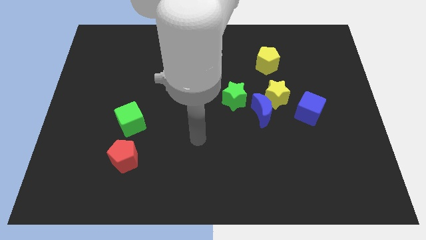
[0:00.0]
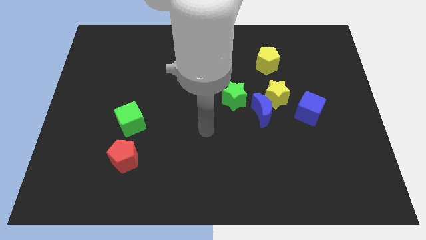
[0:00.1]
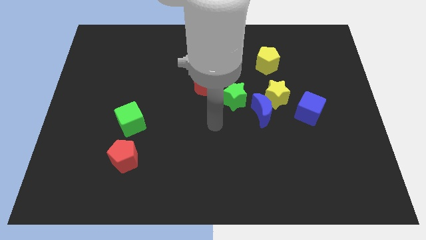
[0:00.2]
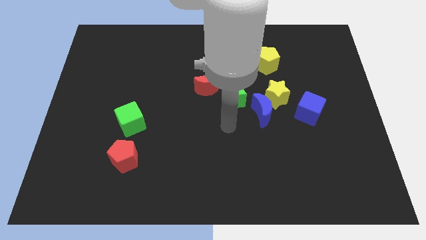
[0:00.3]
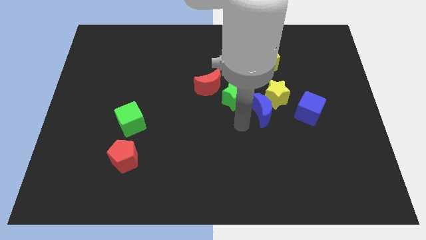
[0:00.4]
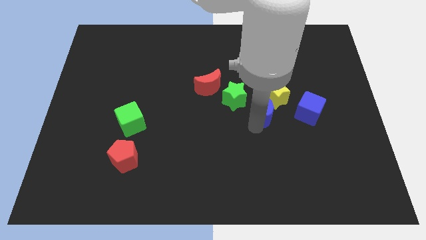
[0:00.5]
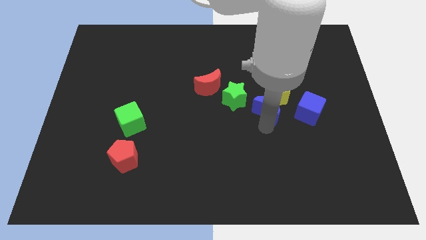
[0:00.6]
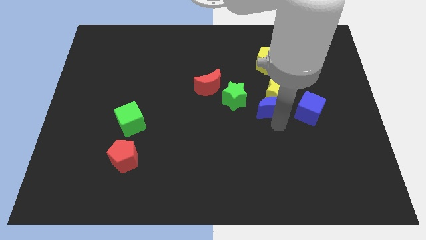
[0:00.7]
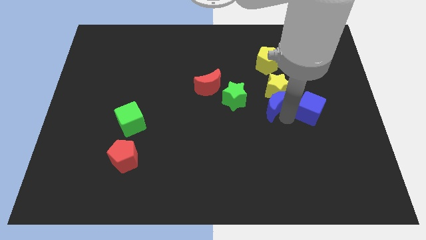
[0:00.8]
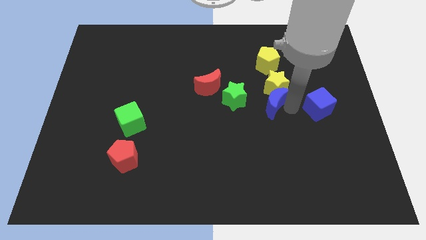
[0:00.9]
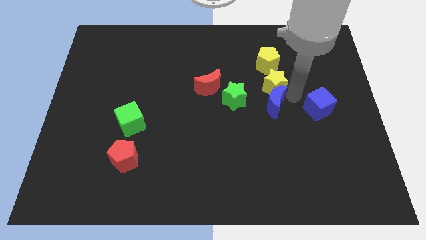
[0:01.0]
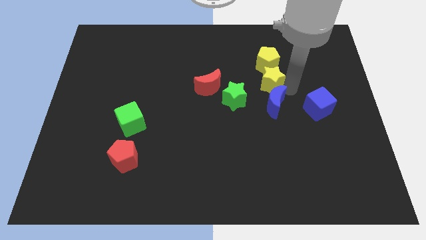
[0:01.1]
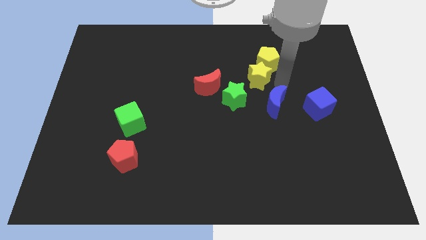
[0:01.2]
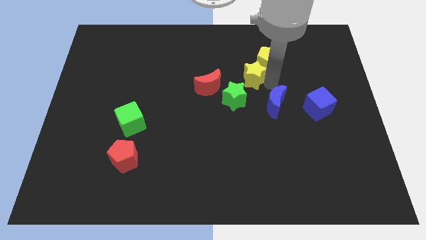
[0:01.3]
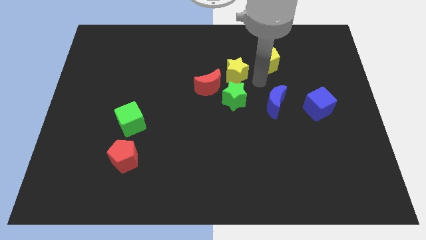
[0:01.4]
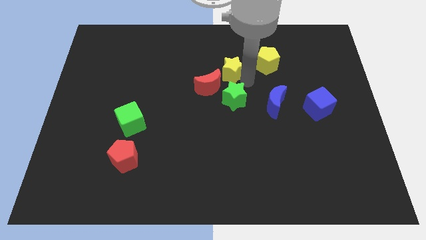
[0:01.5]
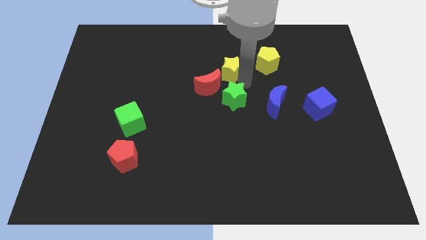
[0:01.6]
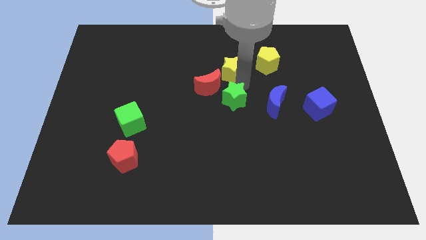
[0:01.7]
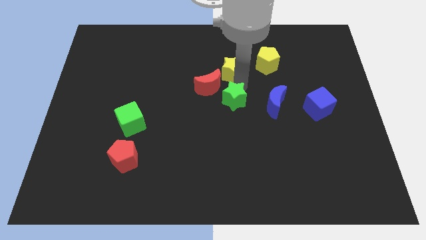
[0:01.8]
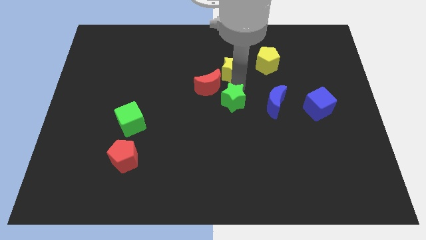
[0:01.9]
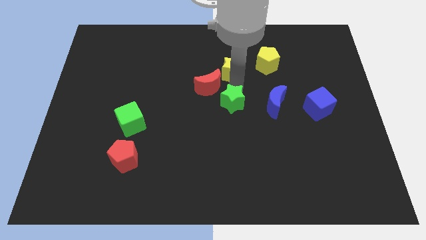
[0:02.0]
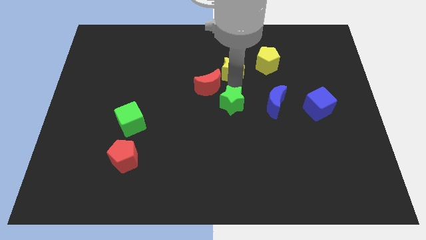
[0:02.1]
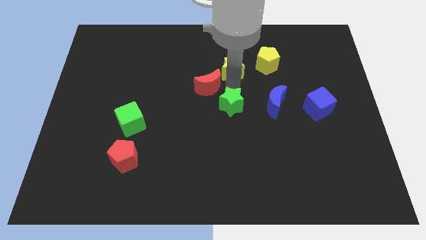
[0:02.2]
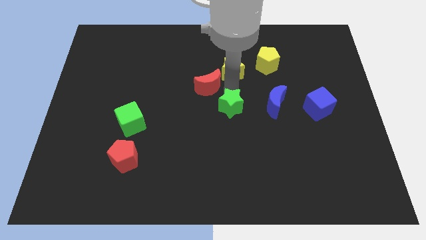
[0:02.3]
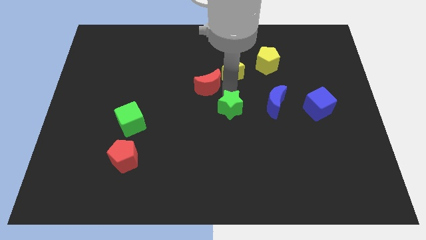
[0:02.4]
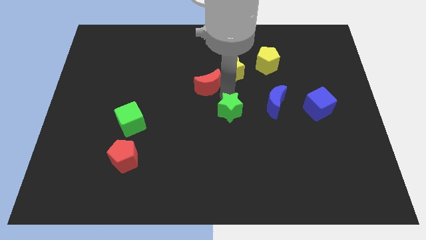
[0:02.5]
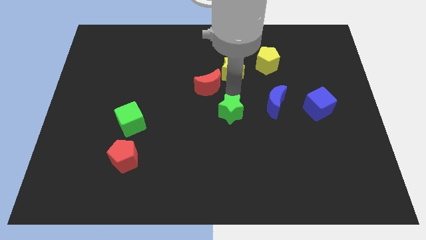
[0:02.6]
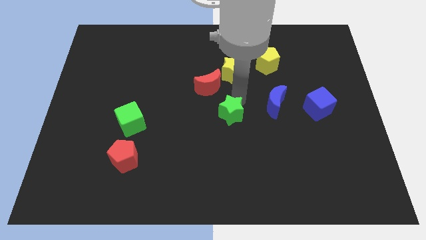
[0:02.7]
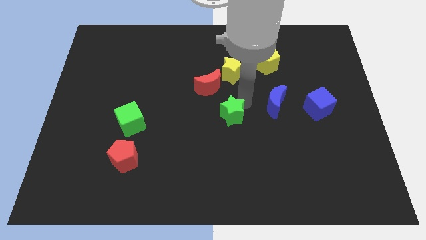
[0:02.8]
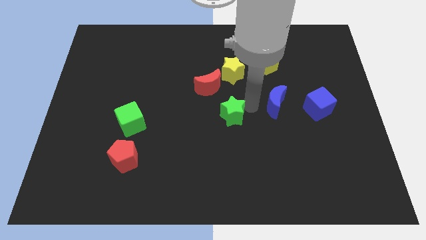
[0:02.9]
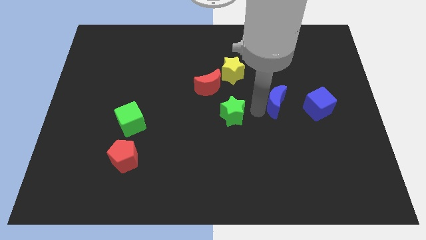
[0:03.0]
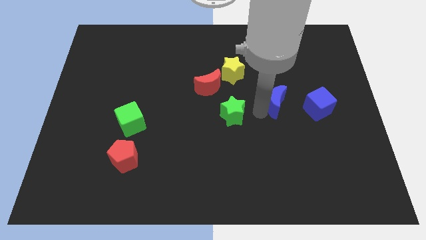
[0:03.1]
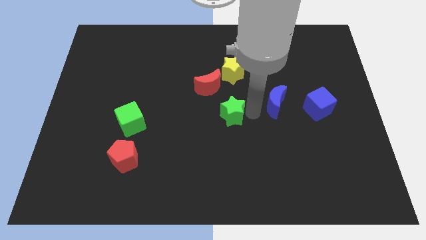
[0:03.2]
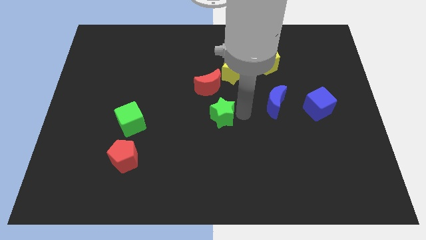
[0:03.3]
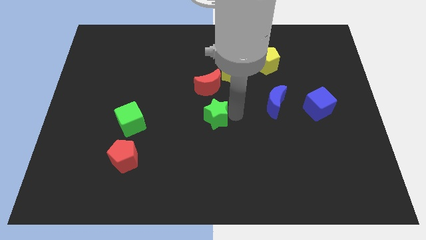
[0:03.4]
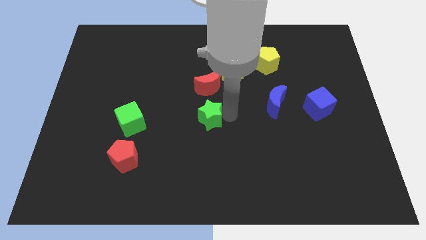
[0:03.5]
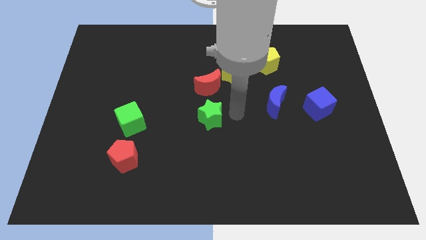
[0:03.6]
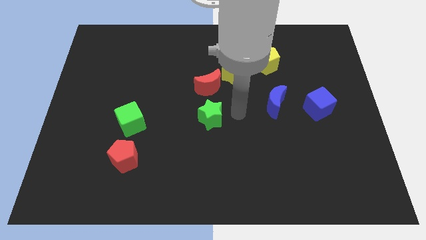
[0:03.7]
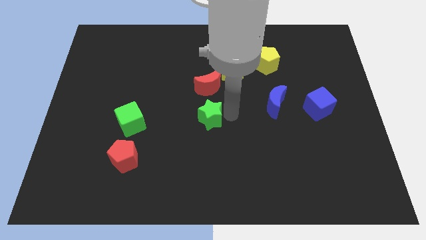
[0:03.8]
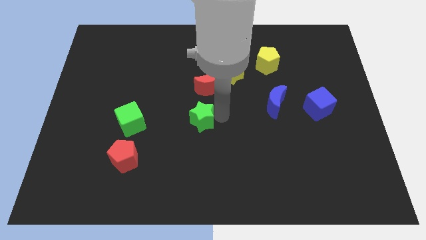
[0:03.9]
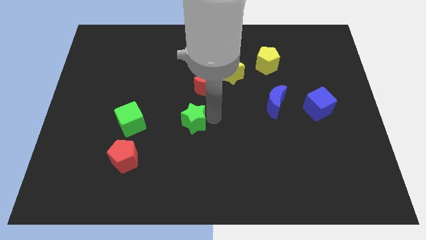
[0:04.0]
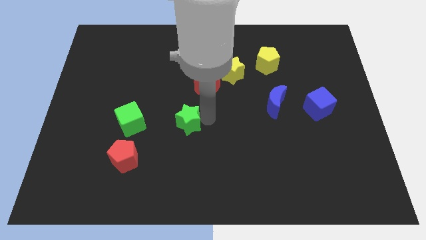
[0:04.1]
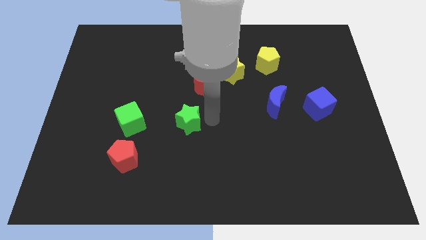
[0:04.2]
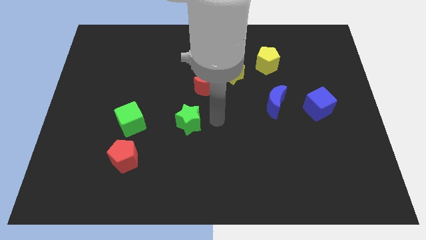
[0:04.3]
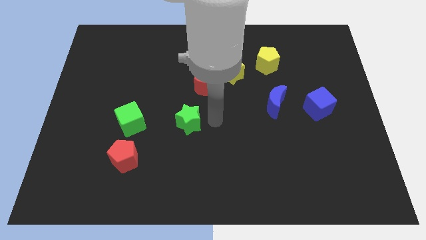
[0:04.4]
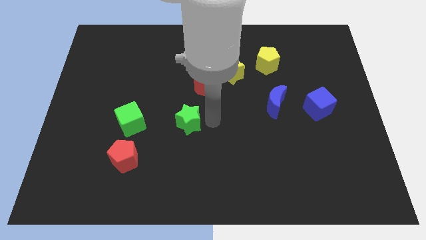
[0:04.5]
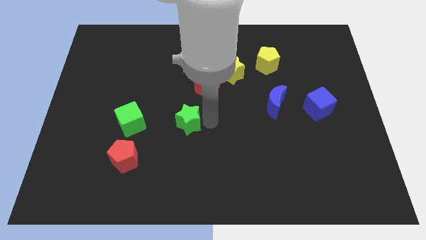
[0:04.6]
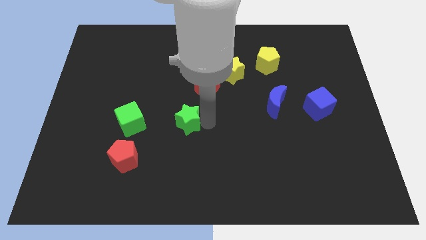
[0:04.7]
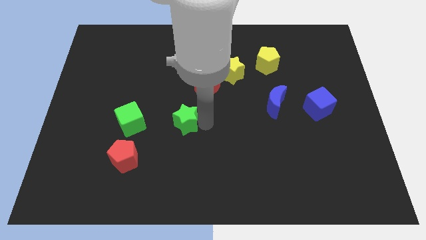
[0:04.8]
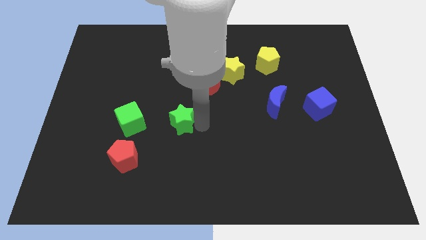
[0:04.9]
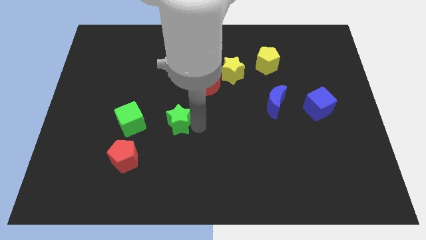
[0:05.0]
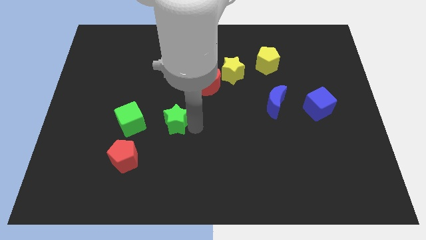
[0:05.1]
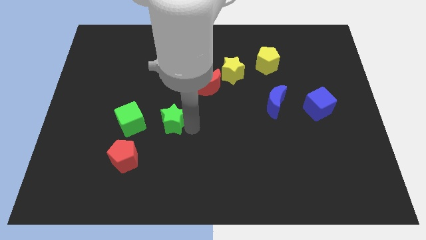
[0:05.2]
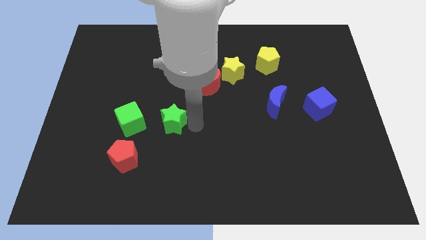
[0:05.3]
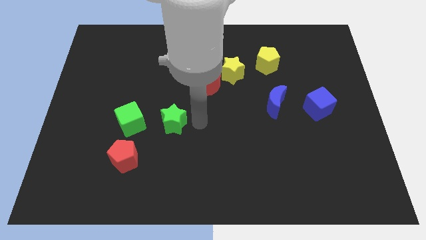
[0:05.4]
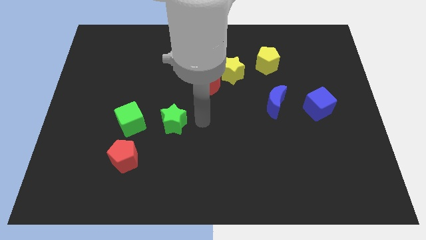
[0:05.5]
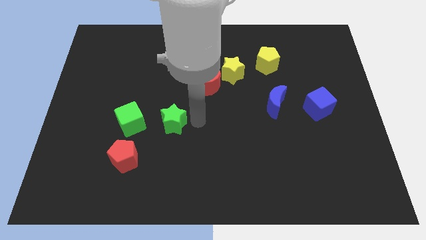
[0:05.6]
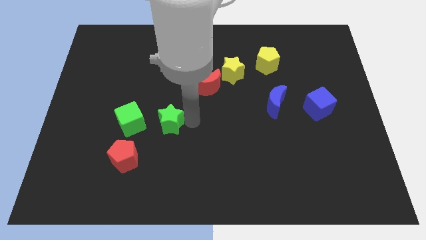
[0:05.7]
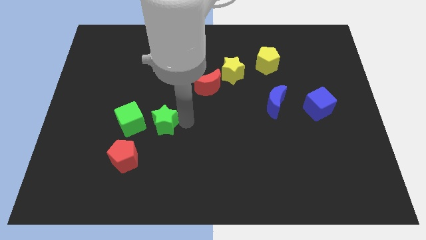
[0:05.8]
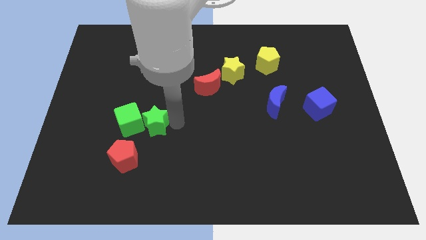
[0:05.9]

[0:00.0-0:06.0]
push the green star towards the green cube

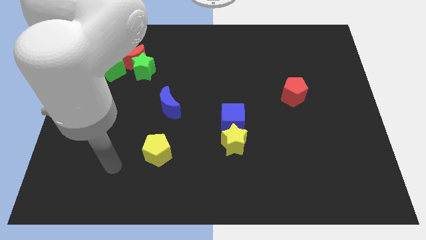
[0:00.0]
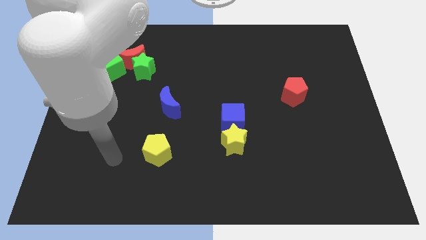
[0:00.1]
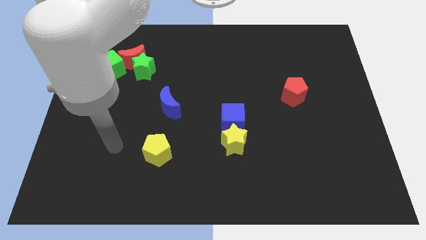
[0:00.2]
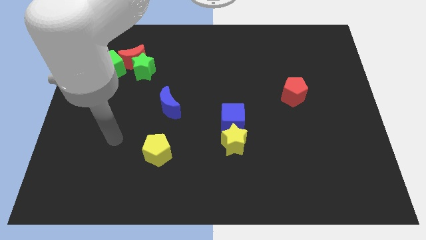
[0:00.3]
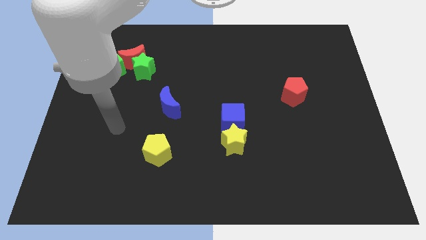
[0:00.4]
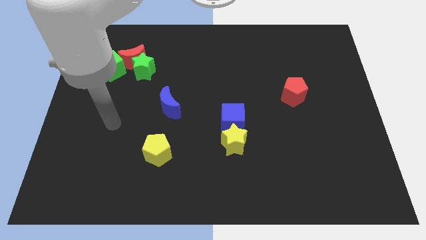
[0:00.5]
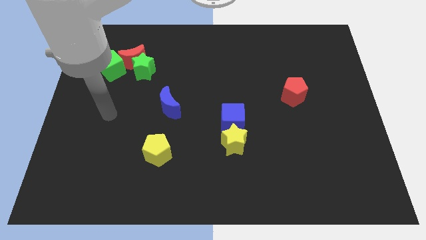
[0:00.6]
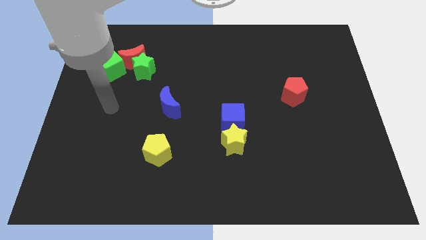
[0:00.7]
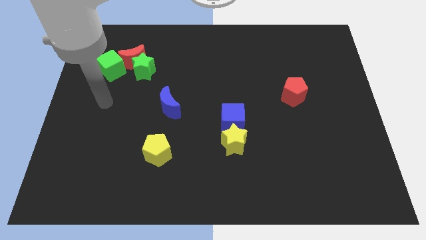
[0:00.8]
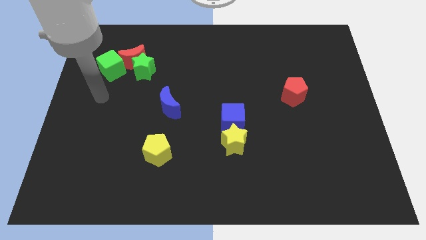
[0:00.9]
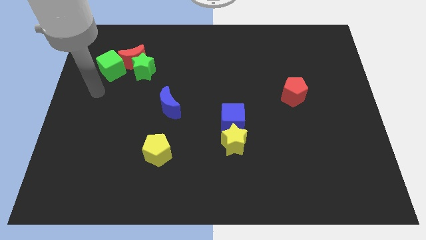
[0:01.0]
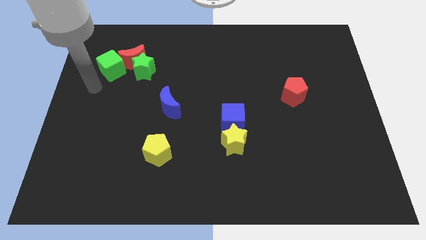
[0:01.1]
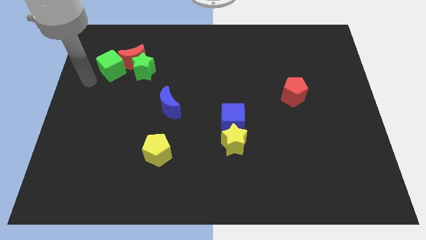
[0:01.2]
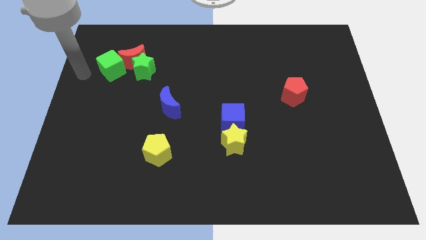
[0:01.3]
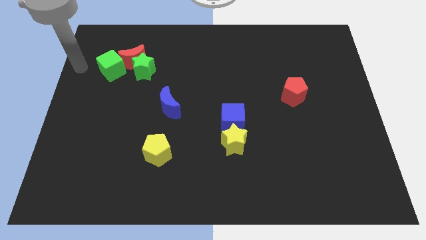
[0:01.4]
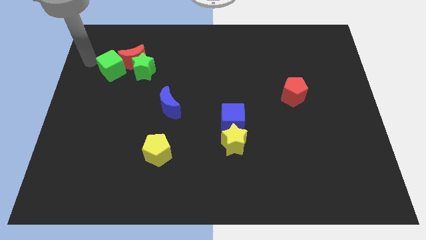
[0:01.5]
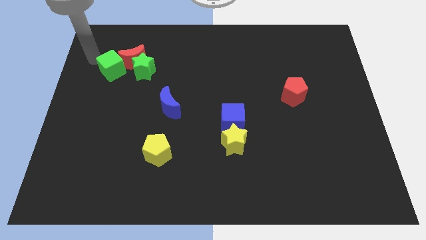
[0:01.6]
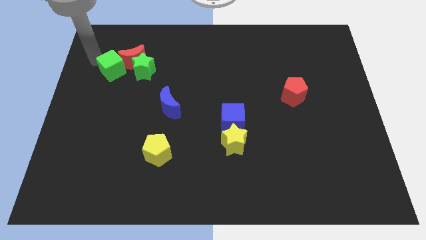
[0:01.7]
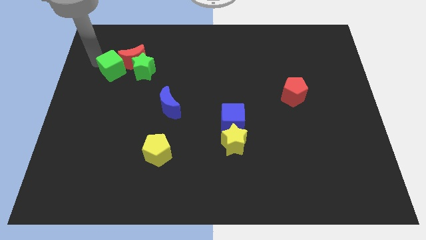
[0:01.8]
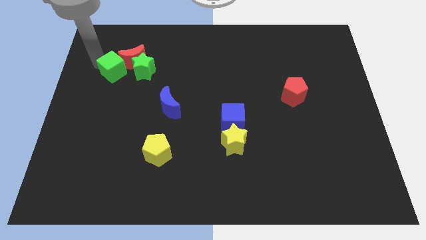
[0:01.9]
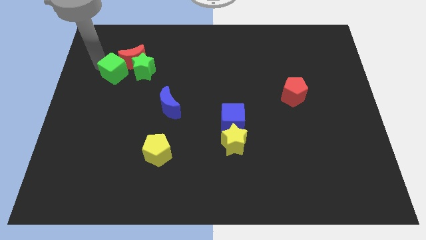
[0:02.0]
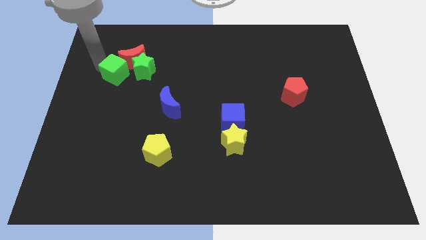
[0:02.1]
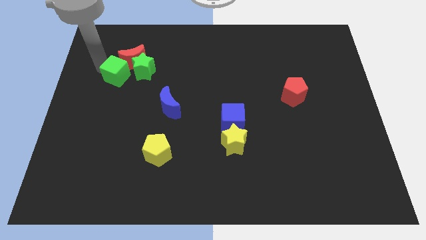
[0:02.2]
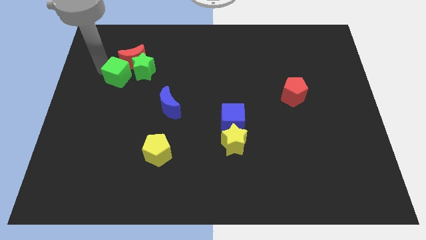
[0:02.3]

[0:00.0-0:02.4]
slide the green cube towards the green star
